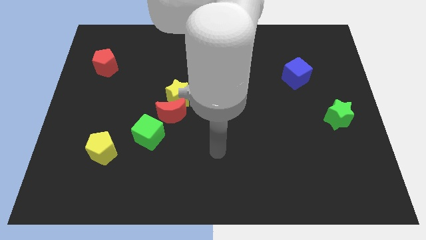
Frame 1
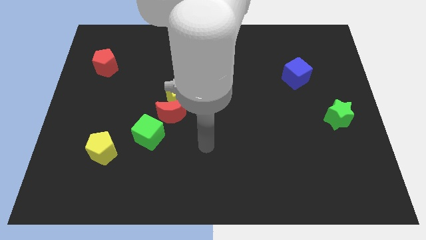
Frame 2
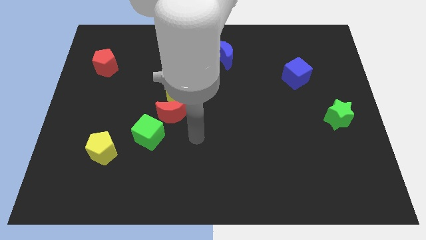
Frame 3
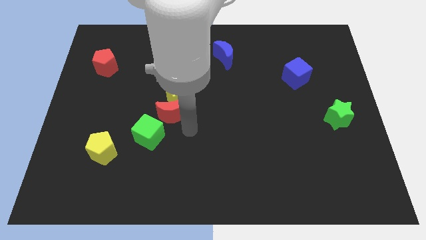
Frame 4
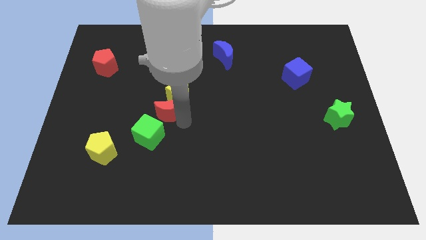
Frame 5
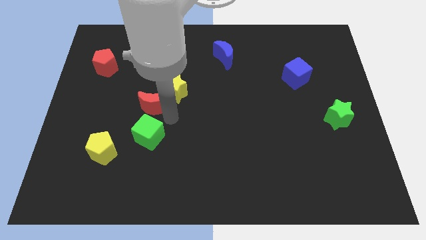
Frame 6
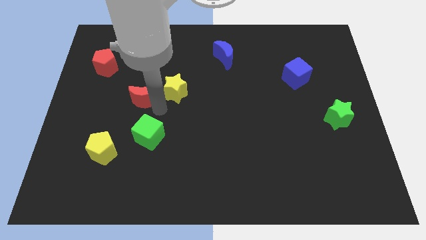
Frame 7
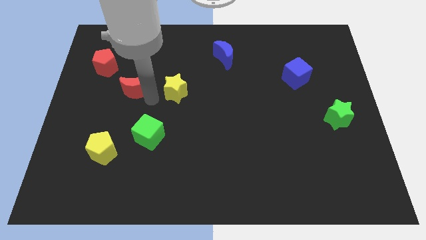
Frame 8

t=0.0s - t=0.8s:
pull the yellow star apart from the red moon

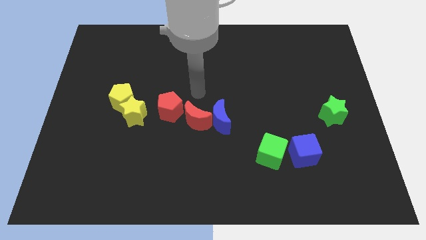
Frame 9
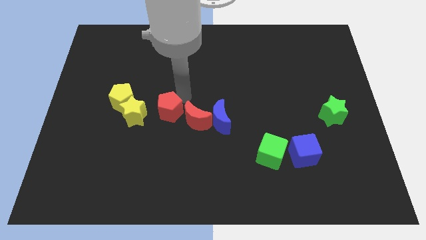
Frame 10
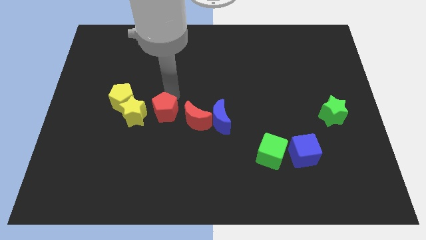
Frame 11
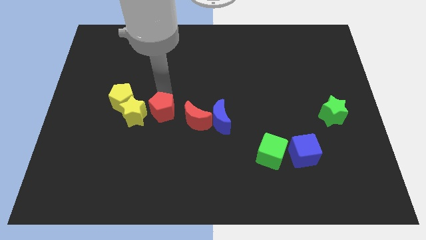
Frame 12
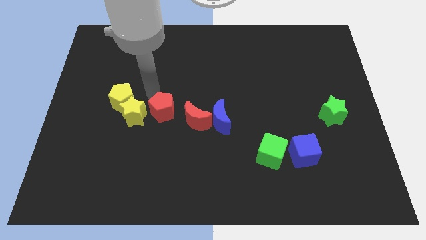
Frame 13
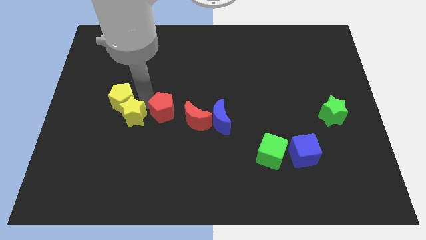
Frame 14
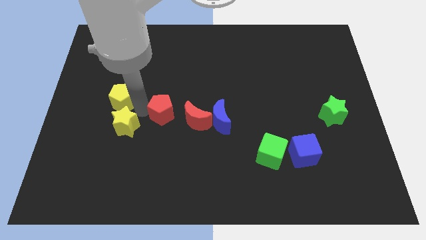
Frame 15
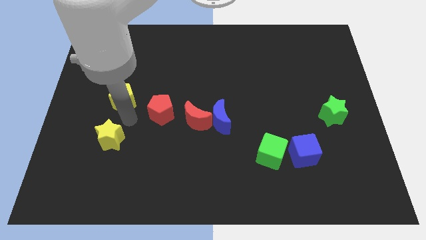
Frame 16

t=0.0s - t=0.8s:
pull the yellow pentagon apart from the yellow star

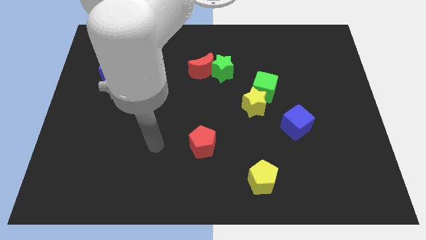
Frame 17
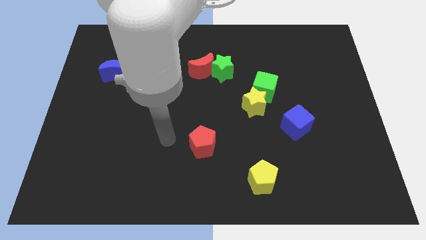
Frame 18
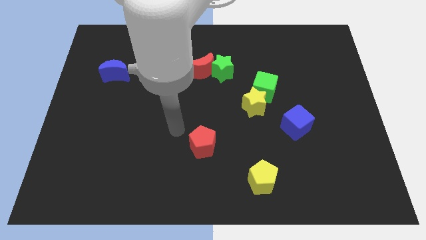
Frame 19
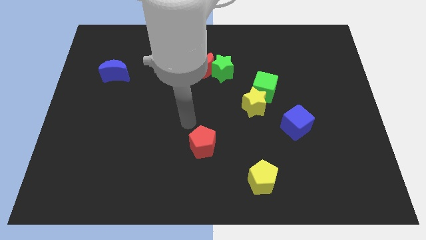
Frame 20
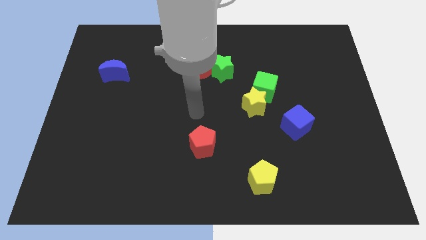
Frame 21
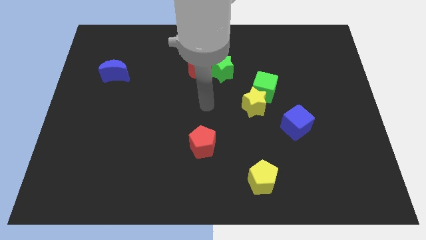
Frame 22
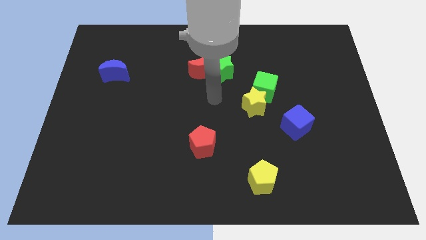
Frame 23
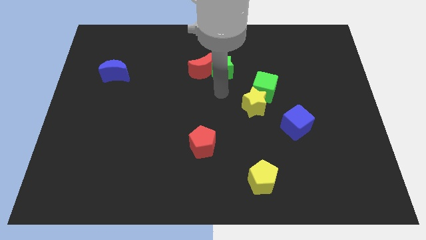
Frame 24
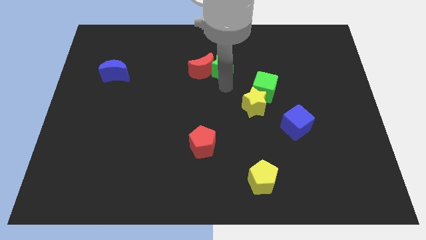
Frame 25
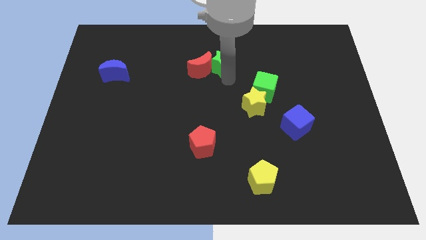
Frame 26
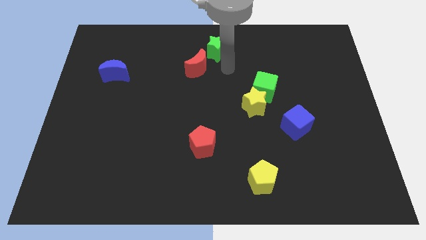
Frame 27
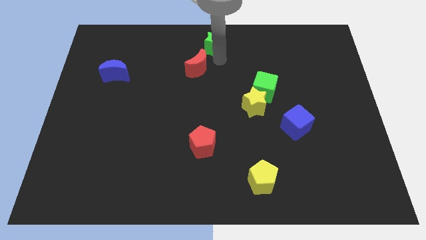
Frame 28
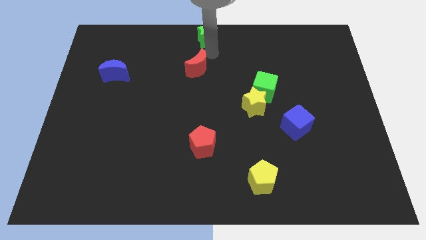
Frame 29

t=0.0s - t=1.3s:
separate the red moon from the green star

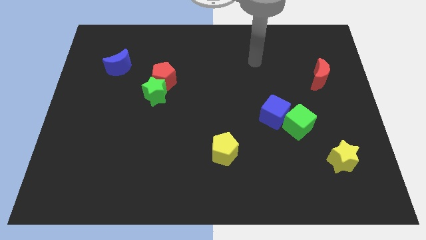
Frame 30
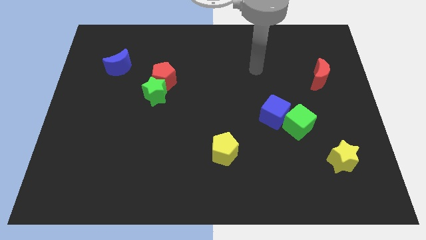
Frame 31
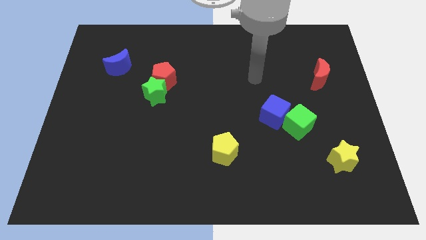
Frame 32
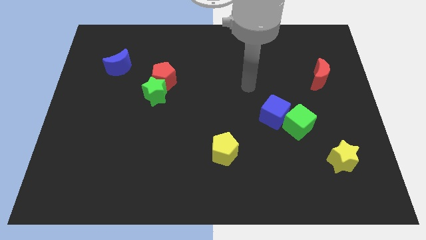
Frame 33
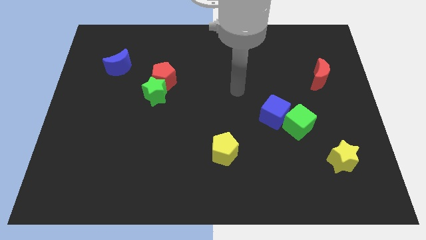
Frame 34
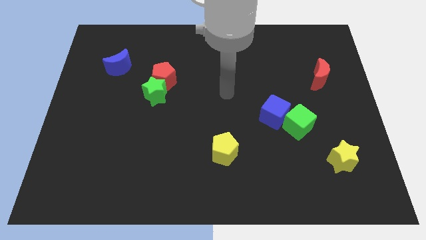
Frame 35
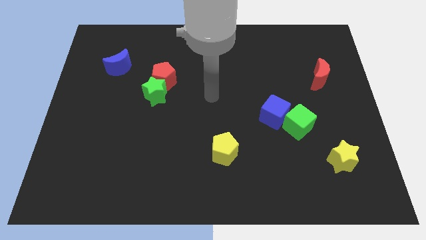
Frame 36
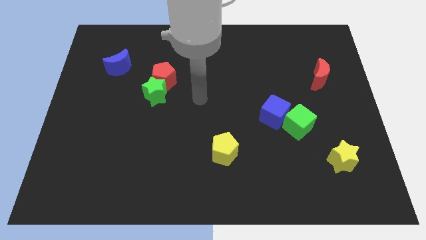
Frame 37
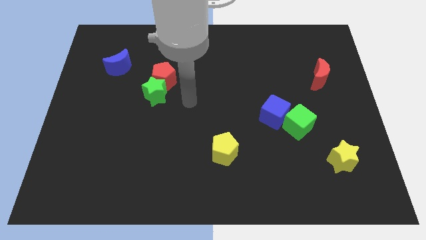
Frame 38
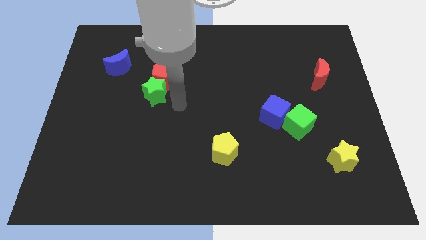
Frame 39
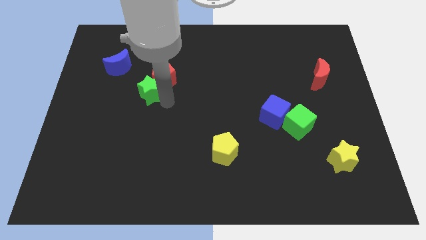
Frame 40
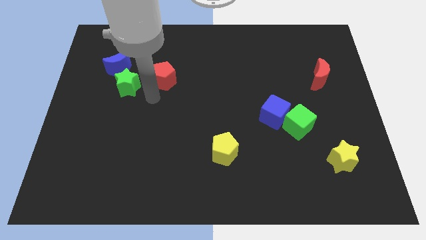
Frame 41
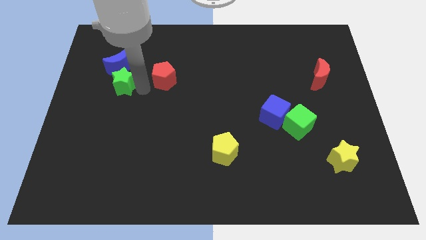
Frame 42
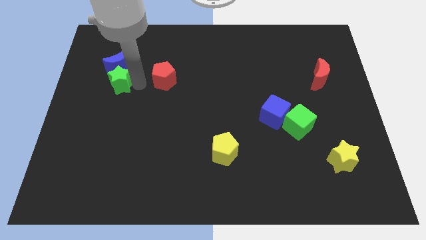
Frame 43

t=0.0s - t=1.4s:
separate the red pentagon from the green star

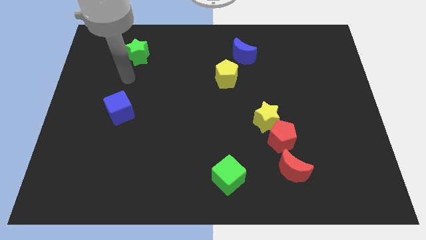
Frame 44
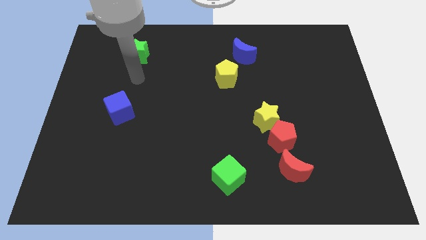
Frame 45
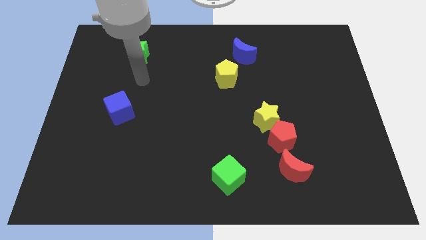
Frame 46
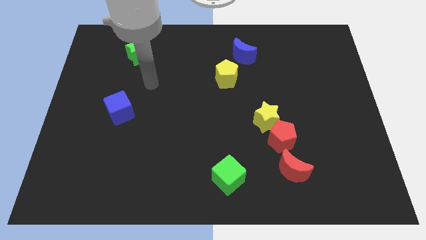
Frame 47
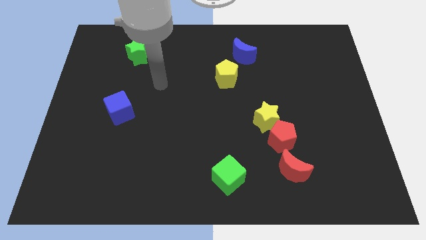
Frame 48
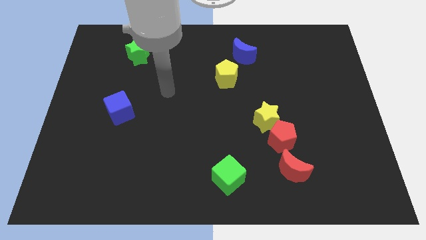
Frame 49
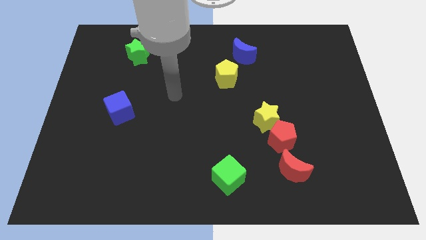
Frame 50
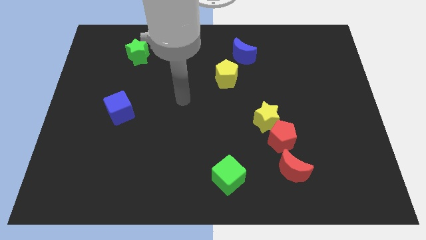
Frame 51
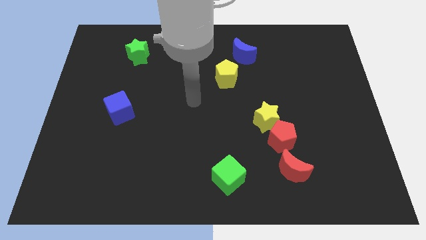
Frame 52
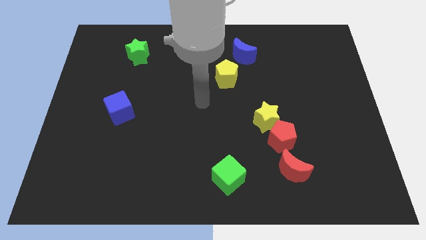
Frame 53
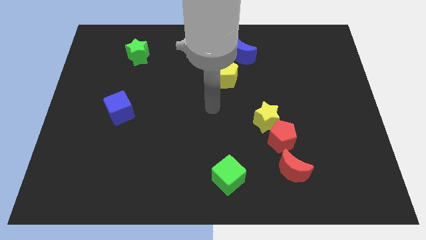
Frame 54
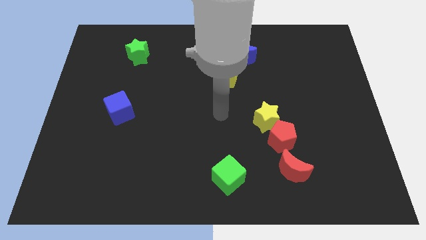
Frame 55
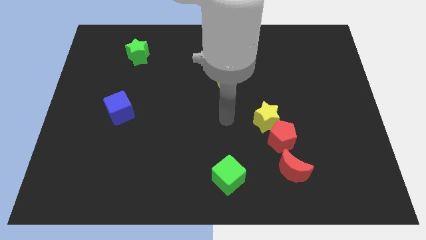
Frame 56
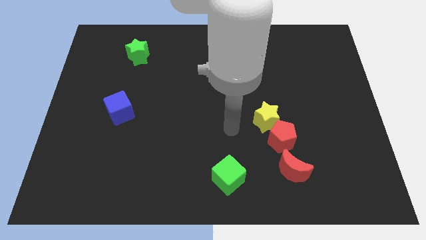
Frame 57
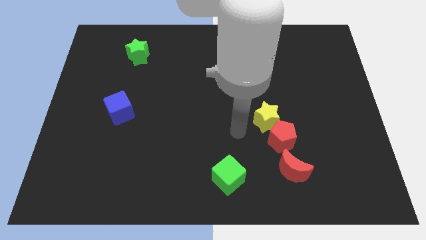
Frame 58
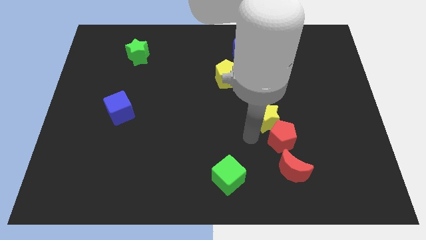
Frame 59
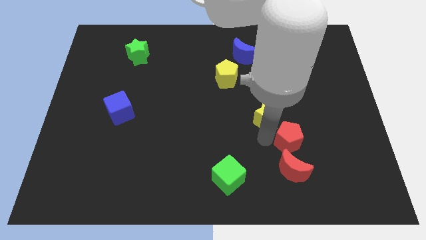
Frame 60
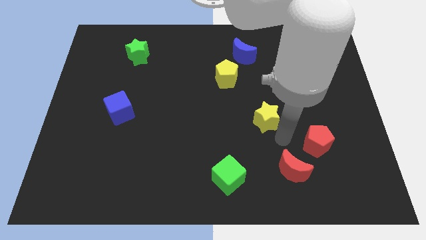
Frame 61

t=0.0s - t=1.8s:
separate the yellow star from the red pentagon

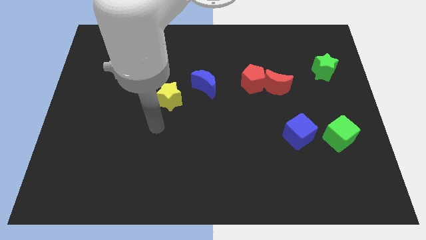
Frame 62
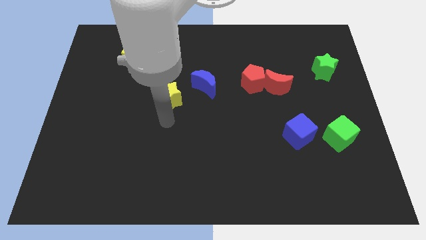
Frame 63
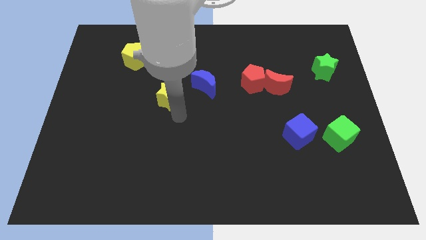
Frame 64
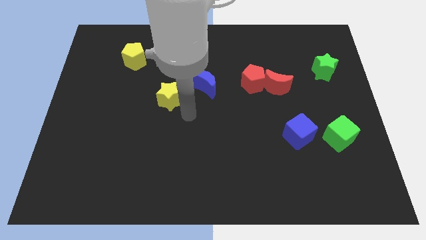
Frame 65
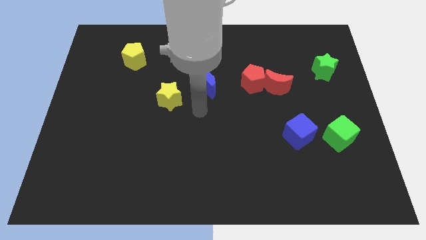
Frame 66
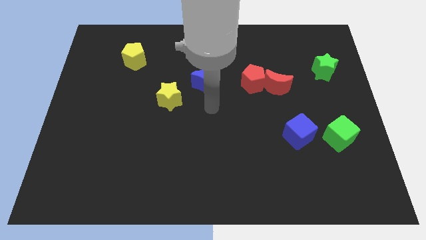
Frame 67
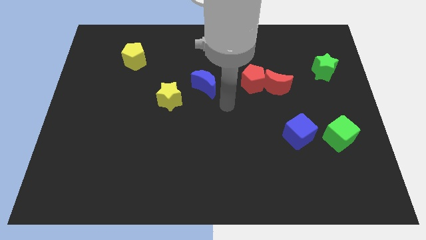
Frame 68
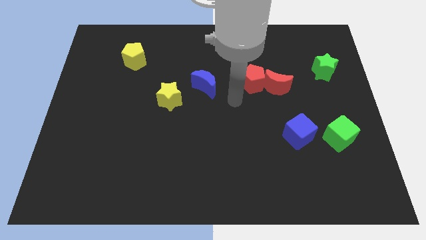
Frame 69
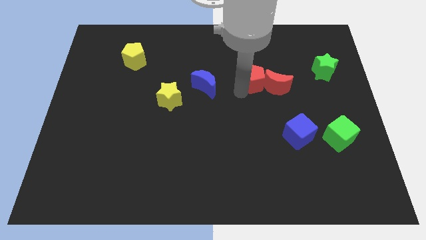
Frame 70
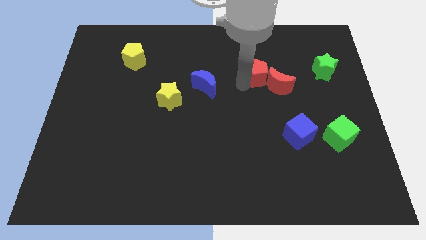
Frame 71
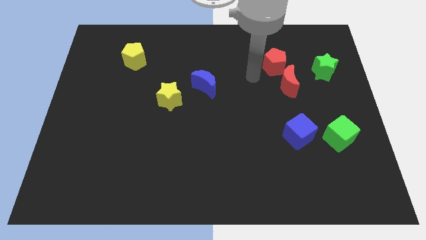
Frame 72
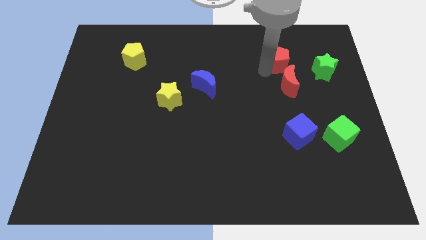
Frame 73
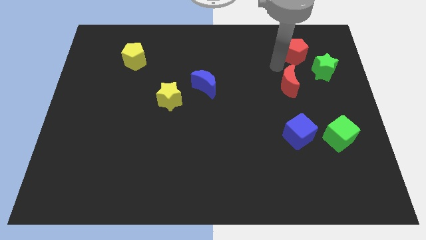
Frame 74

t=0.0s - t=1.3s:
pull the red moon apart from the red pentagon

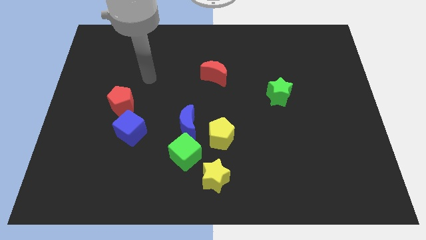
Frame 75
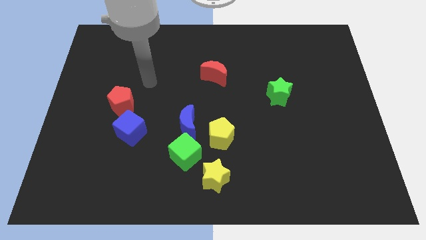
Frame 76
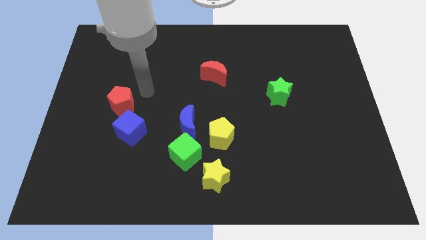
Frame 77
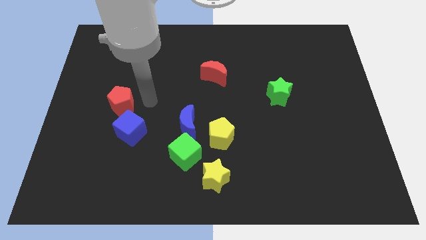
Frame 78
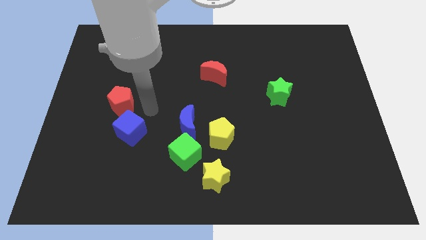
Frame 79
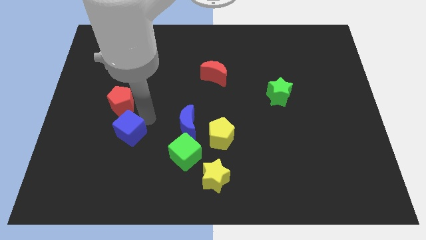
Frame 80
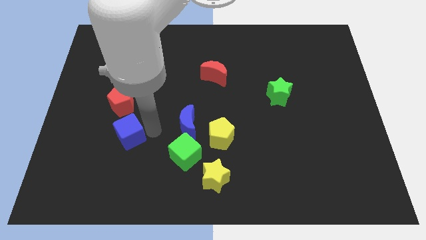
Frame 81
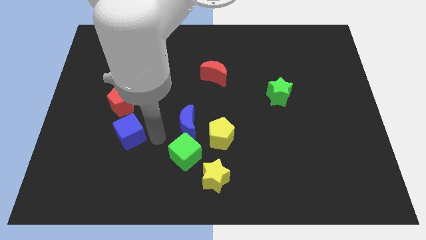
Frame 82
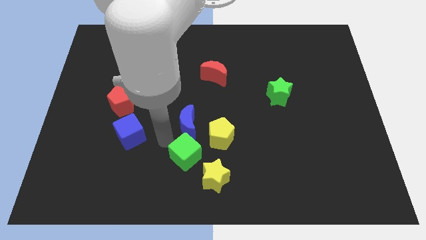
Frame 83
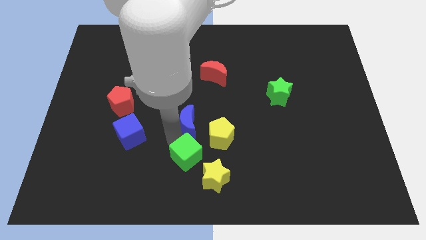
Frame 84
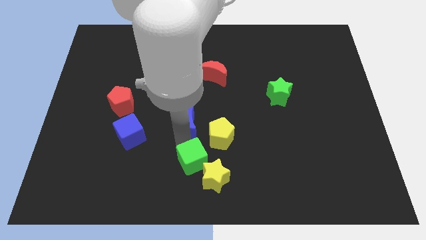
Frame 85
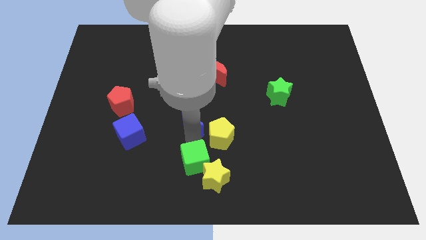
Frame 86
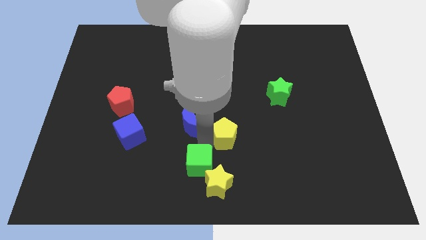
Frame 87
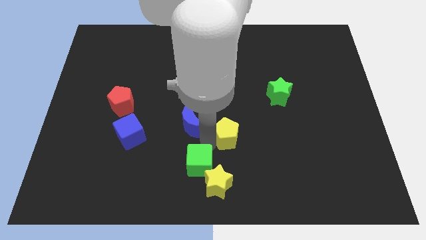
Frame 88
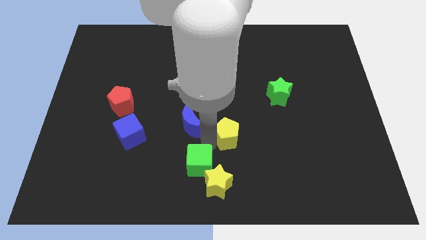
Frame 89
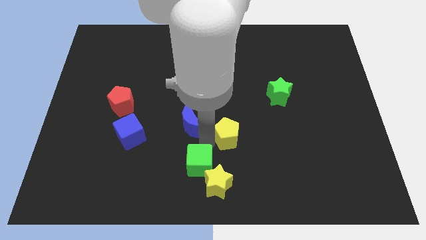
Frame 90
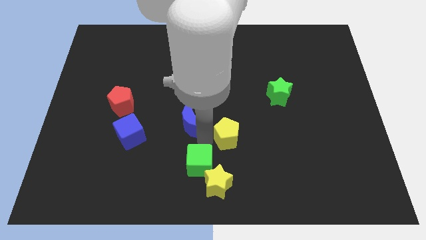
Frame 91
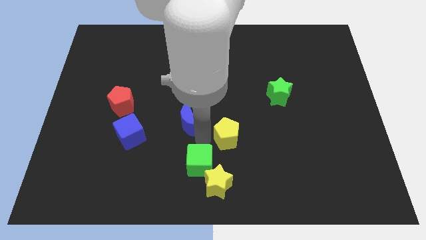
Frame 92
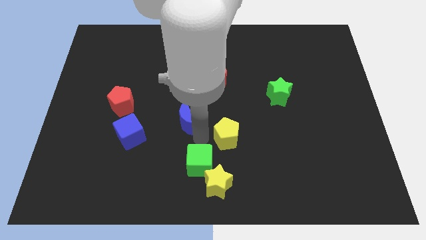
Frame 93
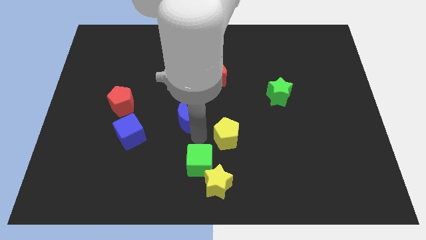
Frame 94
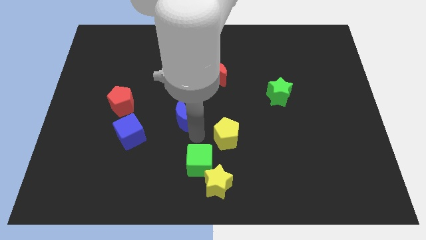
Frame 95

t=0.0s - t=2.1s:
separate the blue moon from the green cube and yellow pentagon
